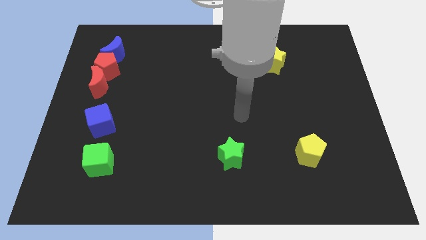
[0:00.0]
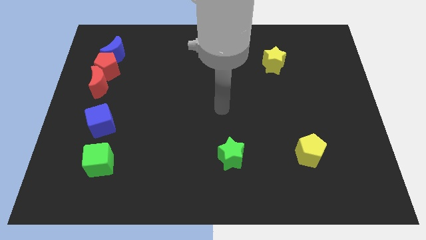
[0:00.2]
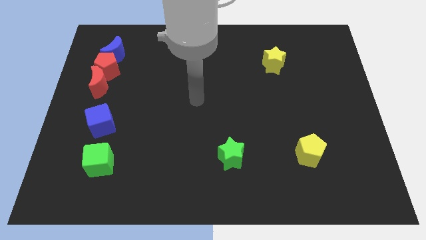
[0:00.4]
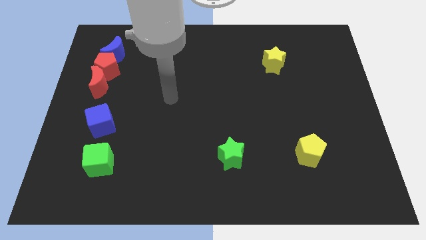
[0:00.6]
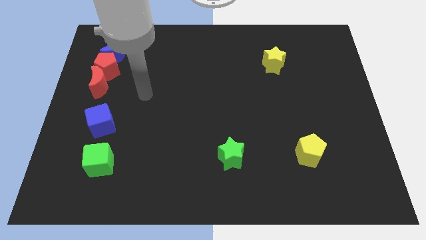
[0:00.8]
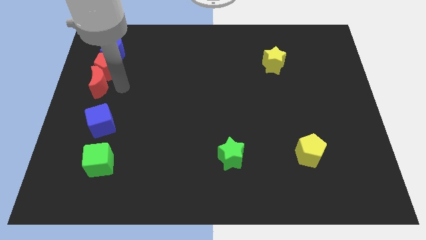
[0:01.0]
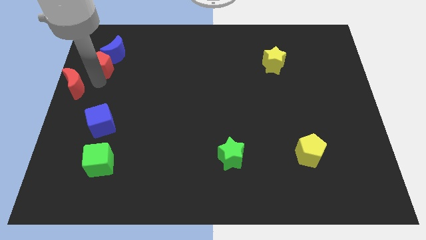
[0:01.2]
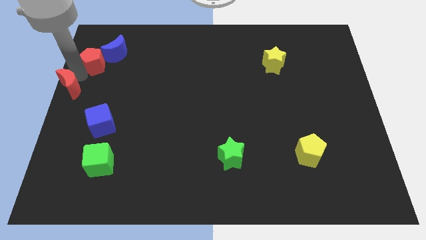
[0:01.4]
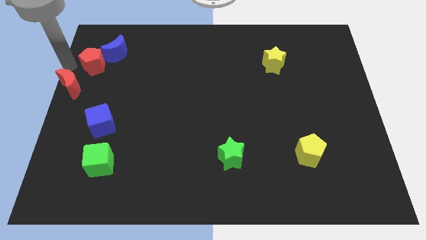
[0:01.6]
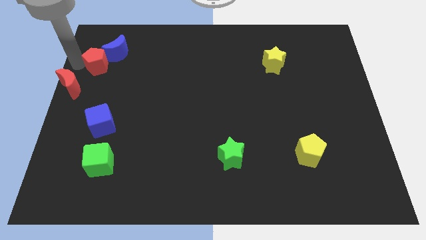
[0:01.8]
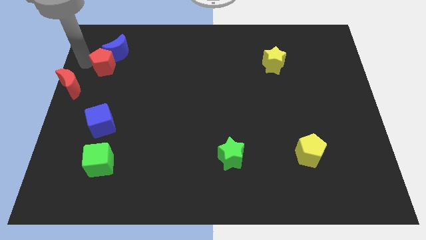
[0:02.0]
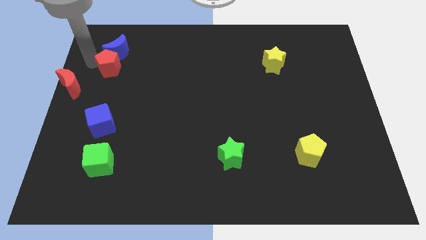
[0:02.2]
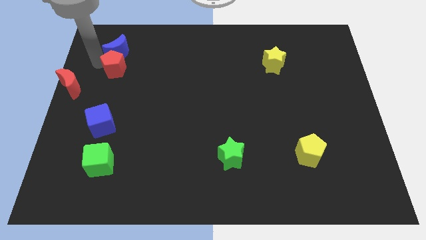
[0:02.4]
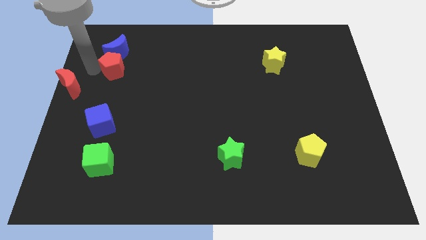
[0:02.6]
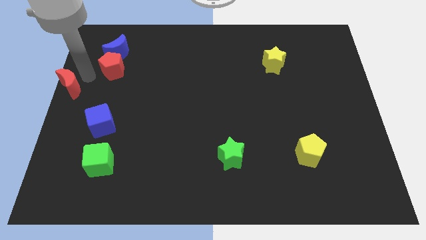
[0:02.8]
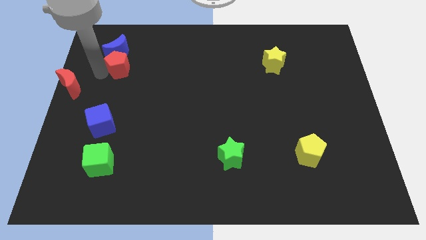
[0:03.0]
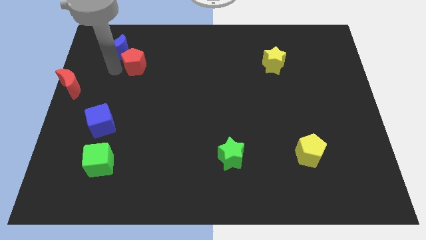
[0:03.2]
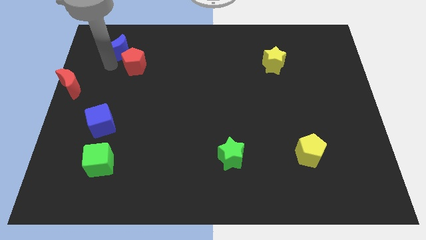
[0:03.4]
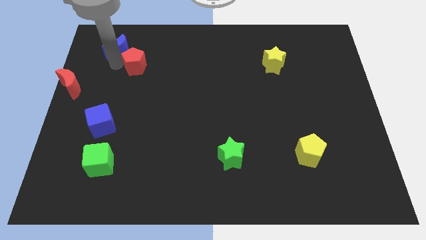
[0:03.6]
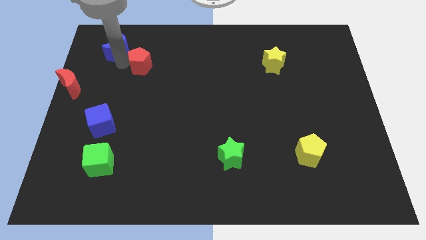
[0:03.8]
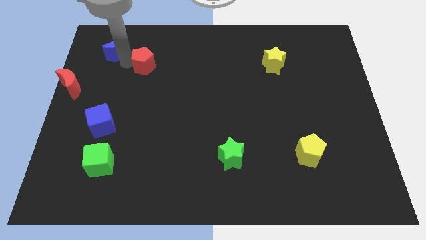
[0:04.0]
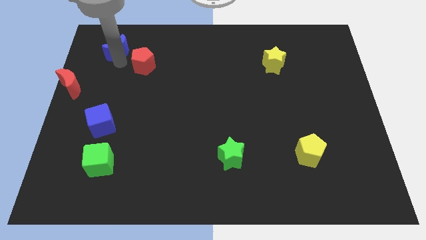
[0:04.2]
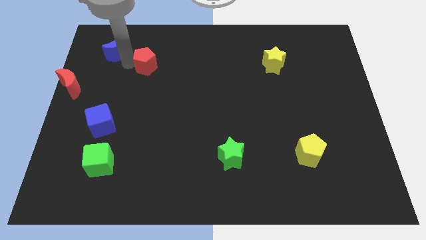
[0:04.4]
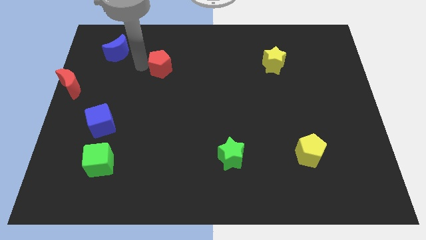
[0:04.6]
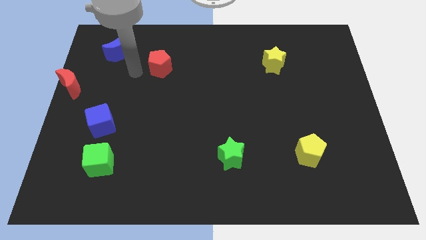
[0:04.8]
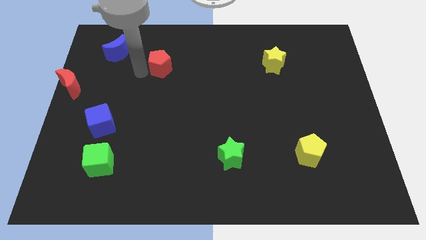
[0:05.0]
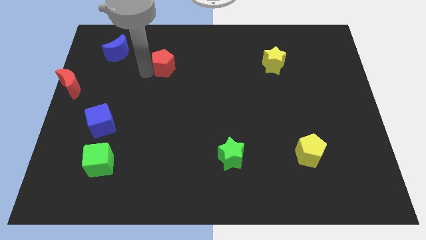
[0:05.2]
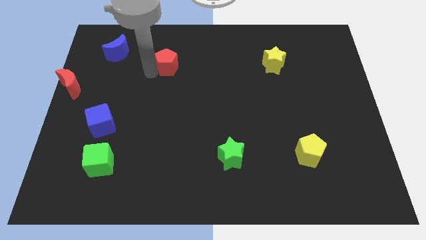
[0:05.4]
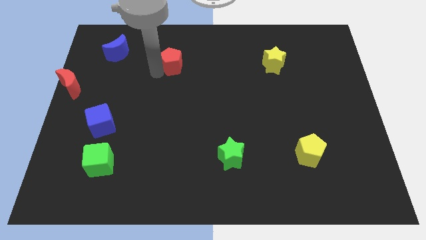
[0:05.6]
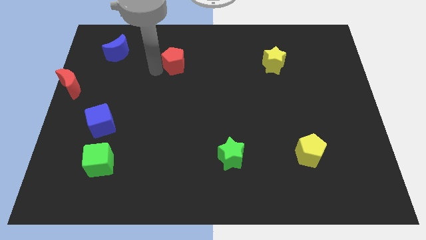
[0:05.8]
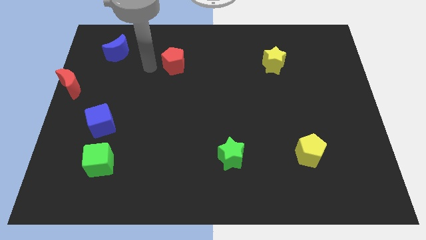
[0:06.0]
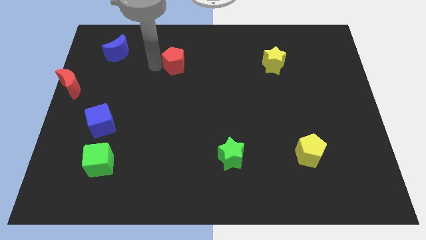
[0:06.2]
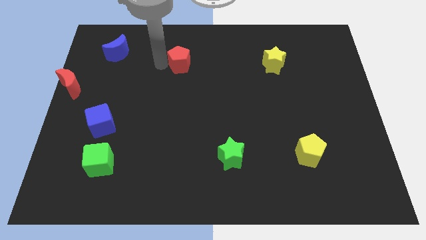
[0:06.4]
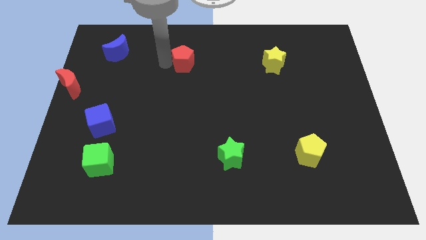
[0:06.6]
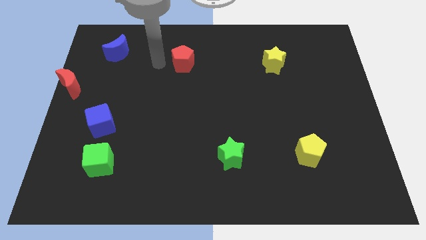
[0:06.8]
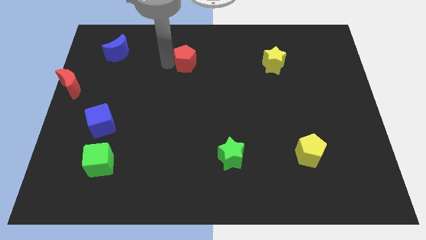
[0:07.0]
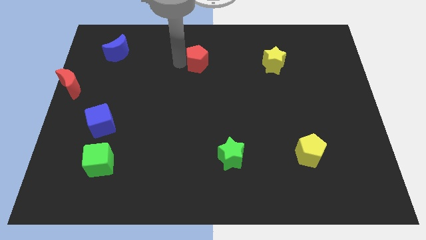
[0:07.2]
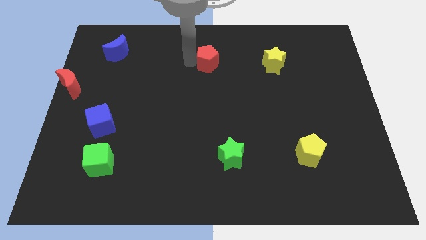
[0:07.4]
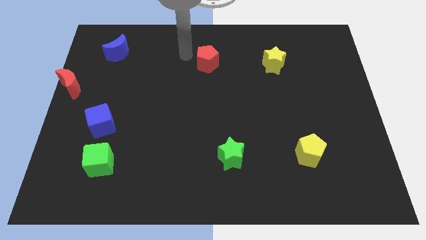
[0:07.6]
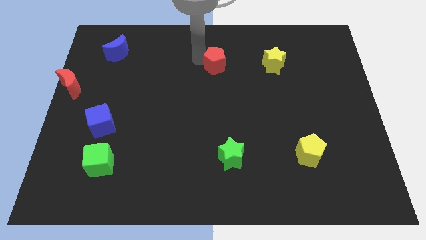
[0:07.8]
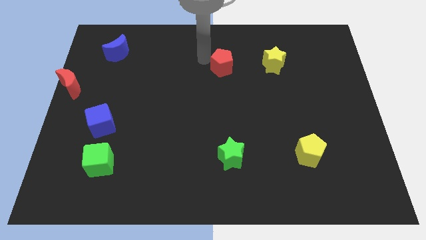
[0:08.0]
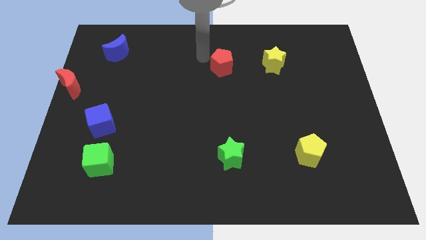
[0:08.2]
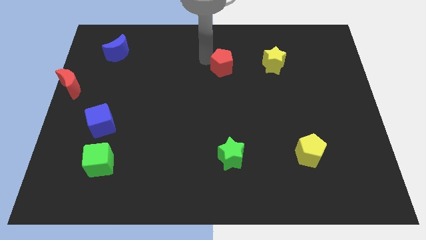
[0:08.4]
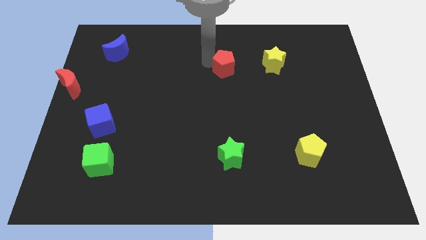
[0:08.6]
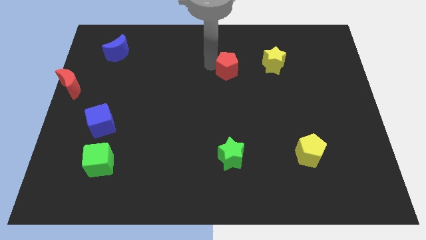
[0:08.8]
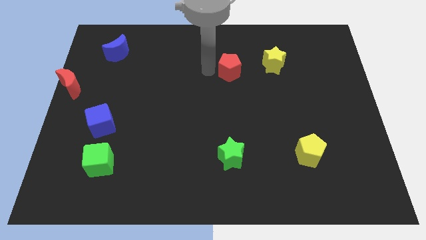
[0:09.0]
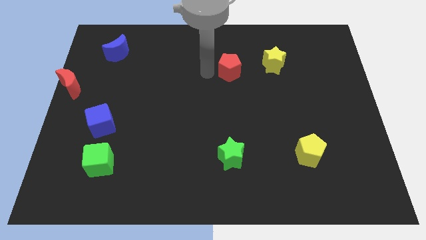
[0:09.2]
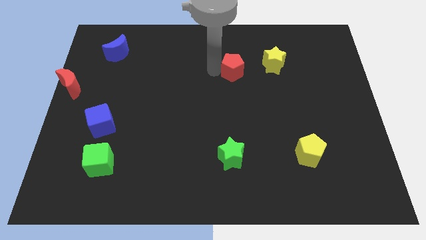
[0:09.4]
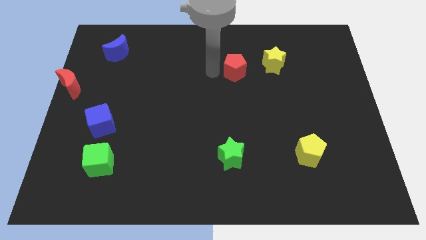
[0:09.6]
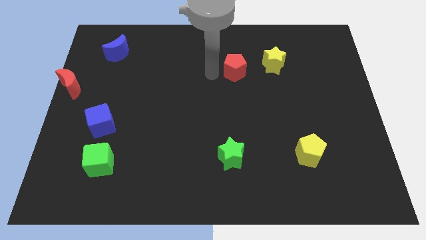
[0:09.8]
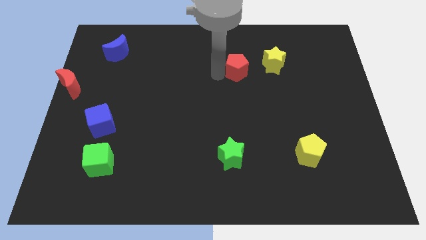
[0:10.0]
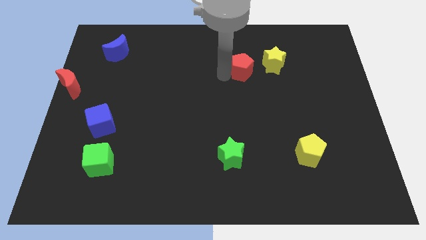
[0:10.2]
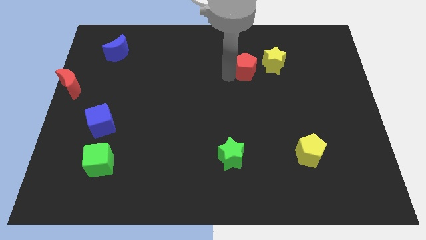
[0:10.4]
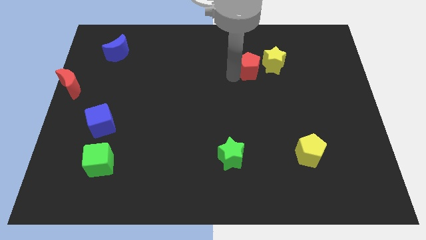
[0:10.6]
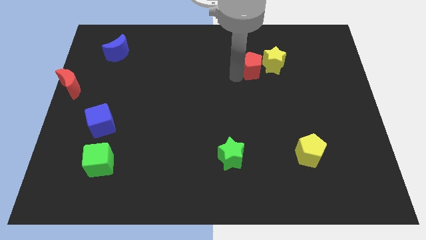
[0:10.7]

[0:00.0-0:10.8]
slide the red pentagon to the yellow star
